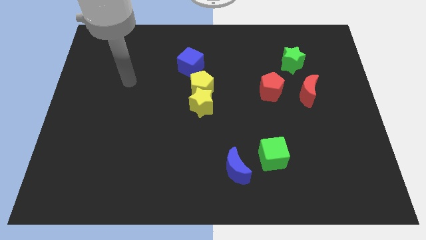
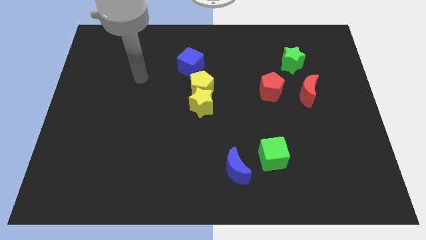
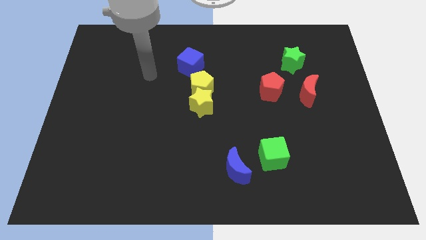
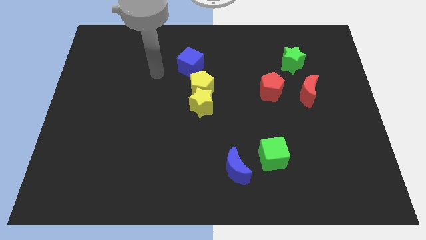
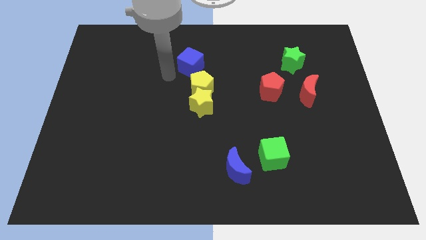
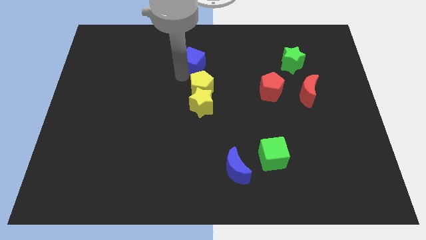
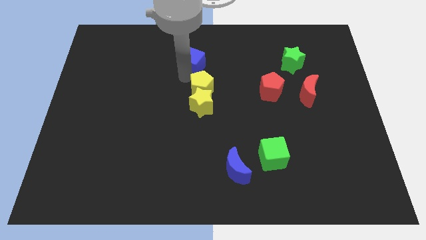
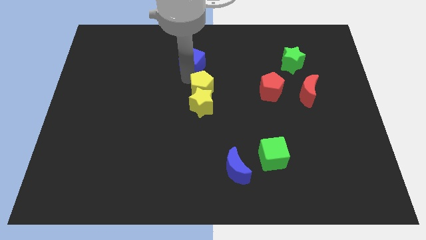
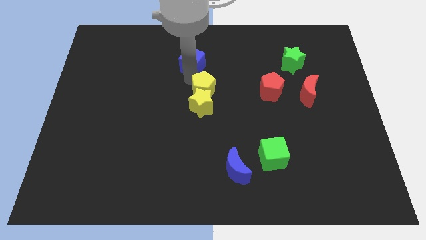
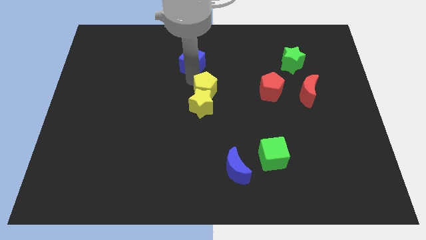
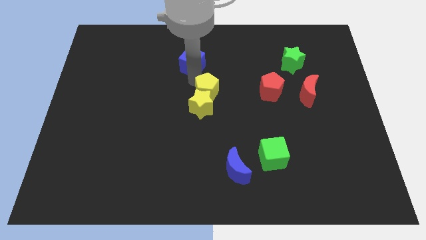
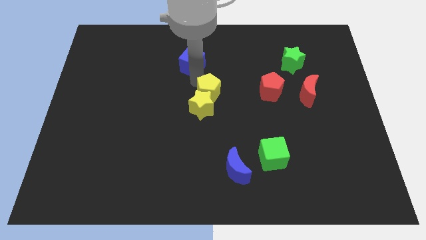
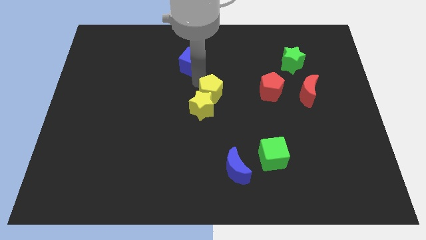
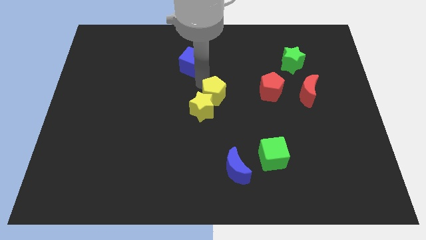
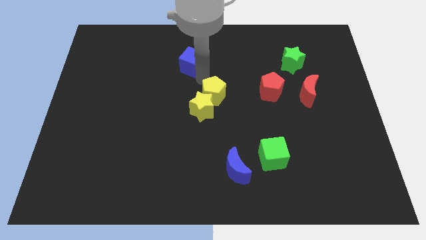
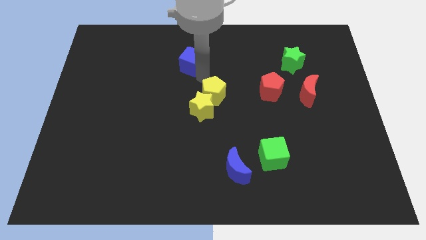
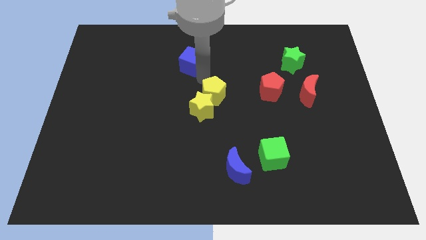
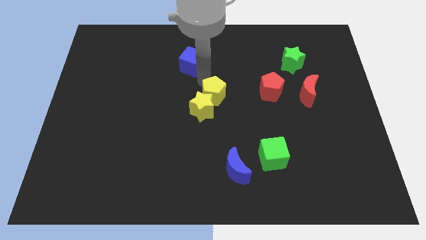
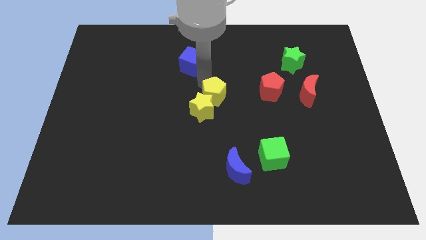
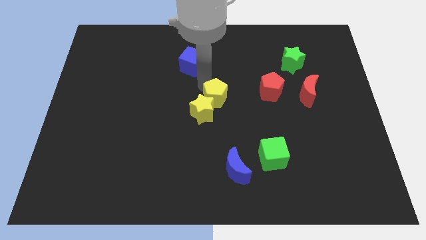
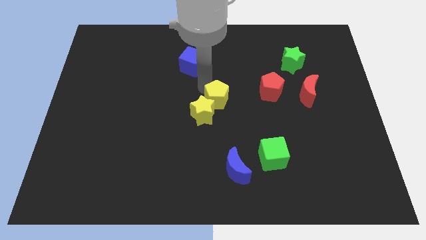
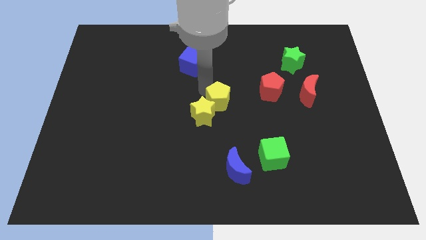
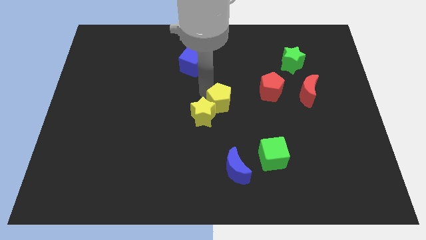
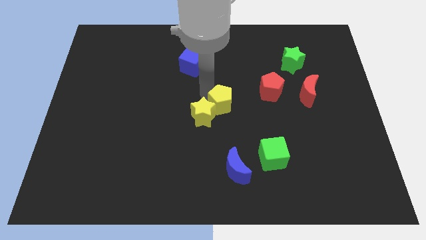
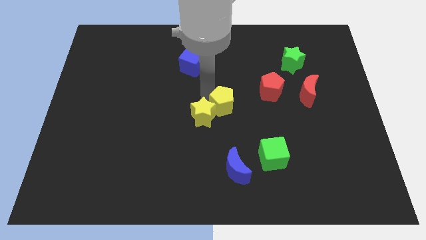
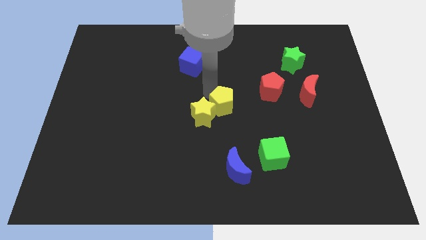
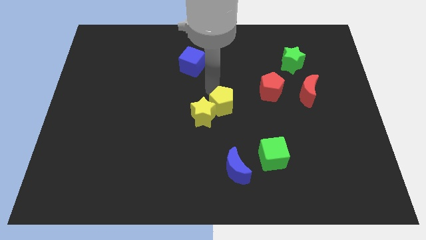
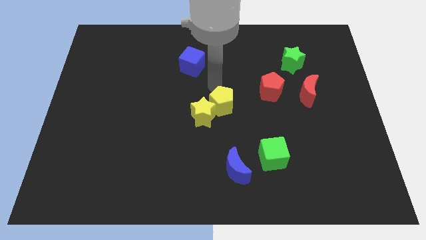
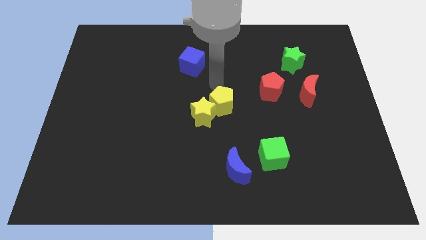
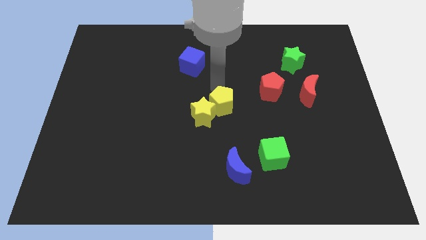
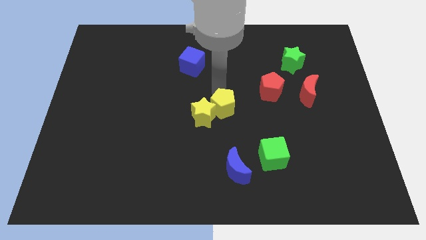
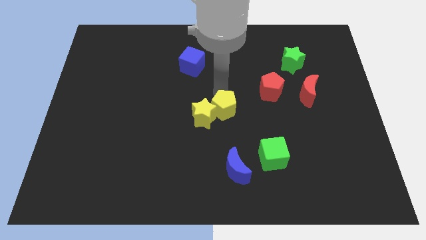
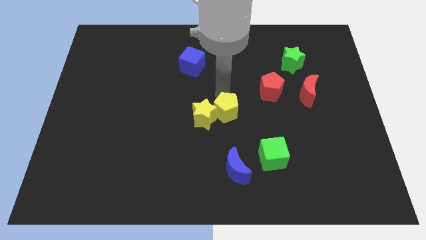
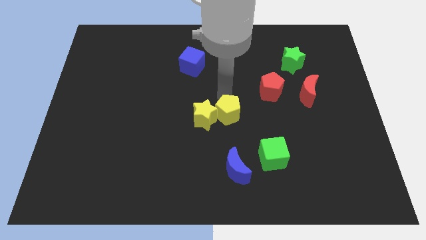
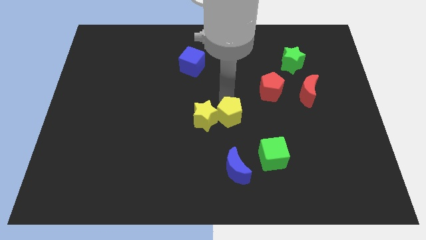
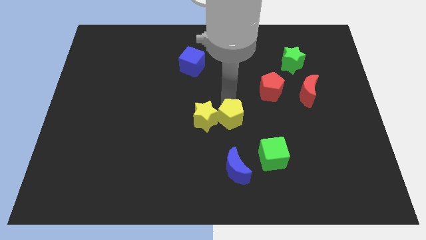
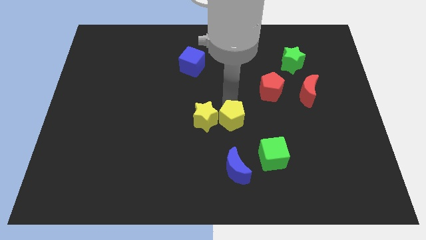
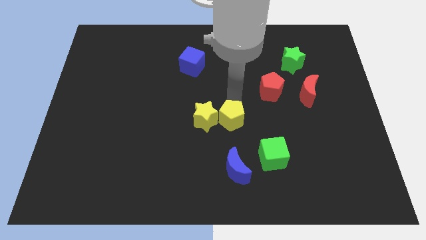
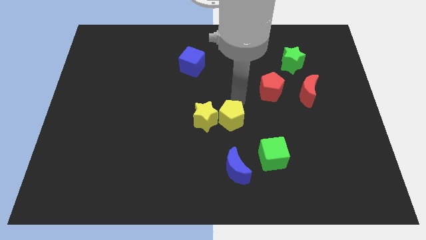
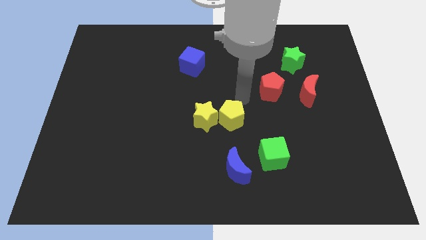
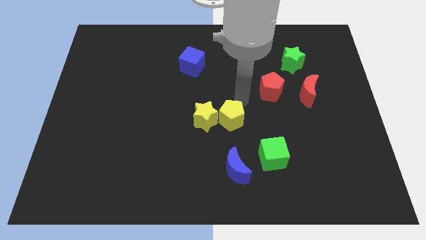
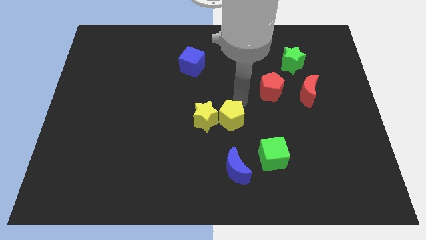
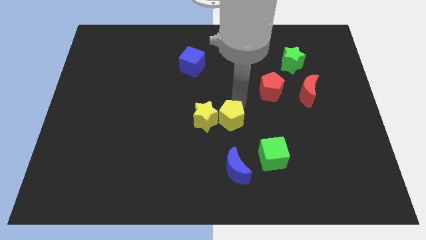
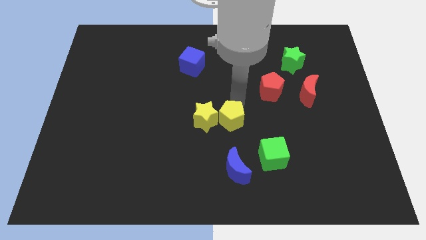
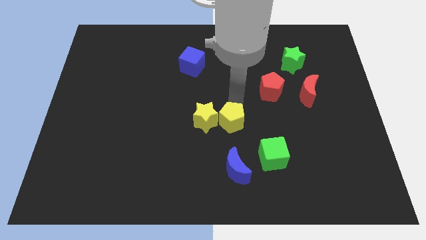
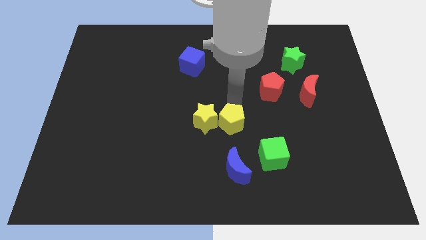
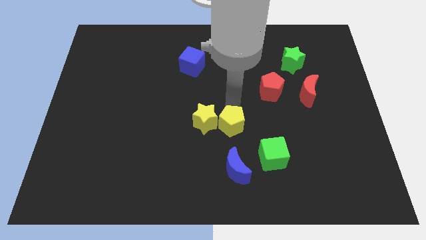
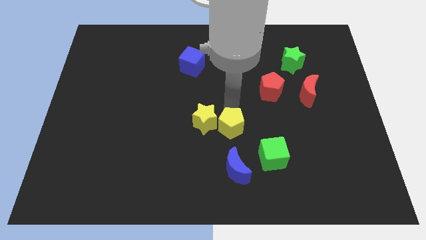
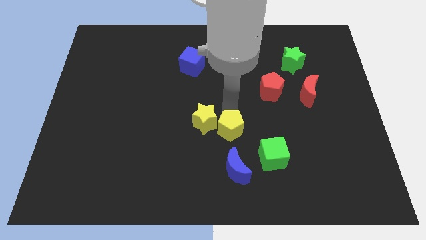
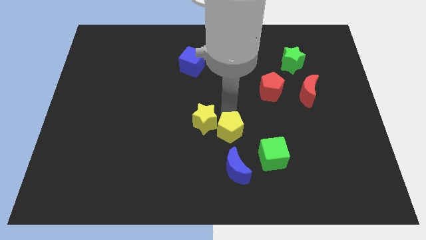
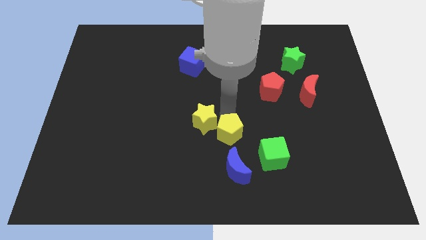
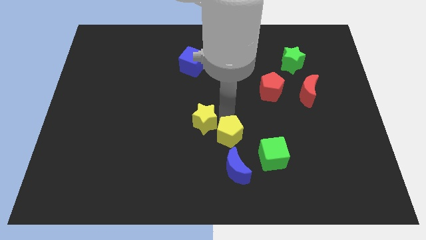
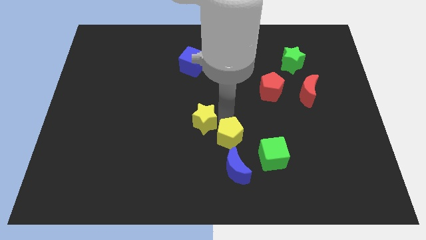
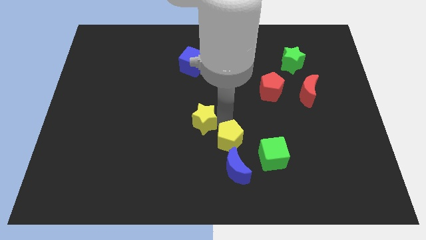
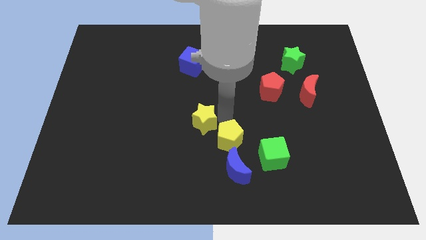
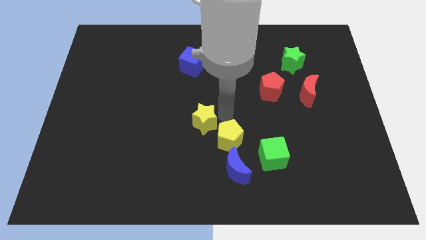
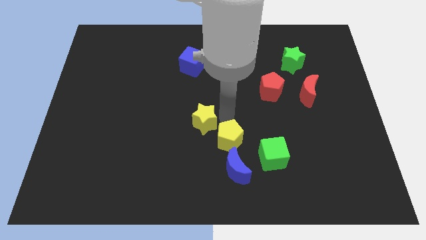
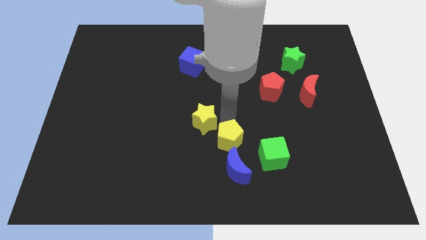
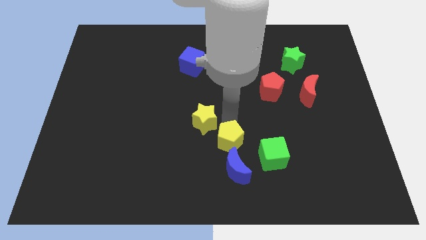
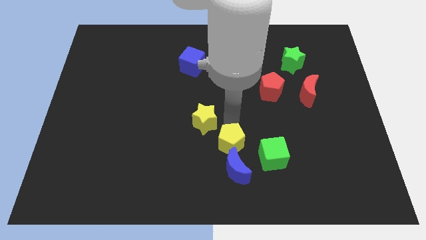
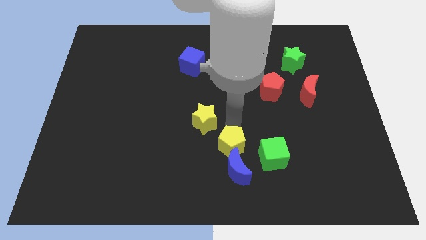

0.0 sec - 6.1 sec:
push the yellow pentagon close to the blue moon

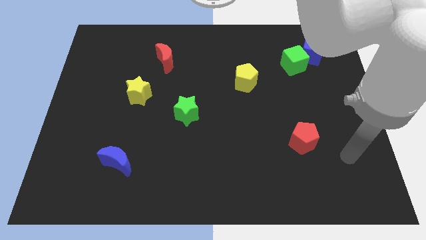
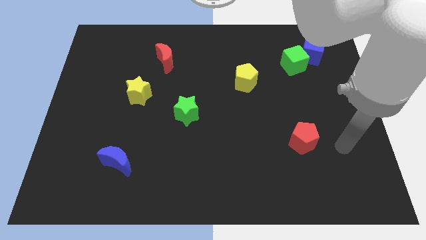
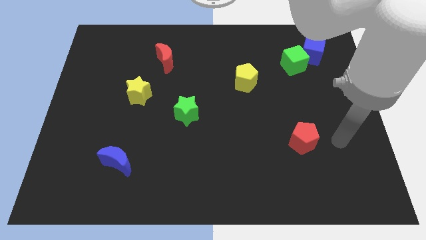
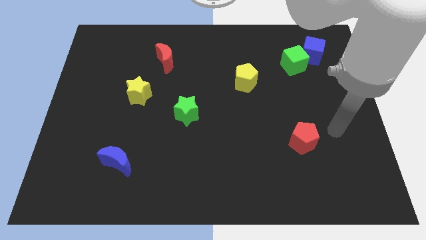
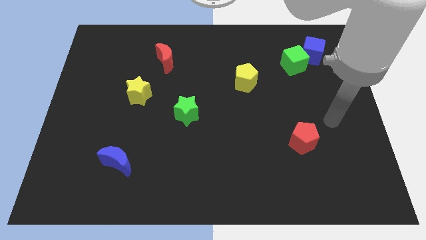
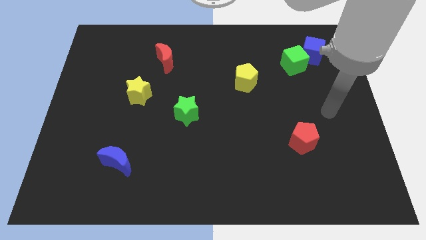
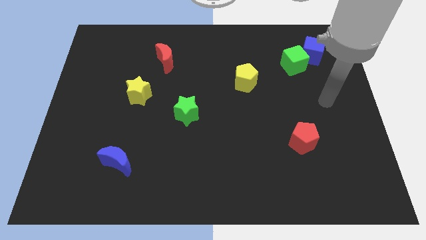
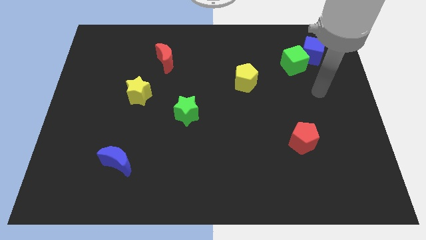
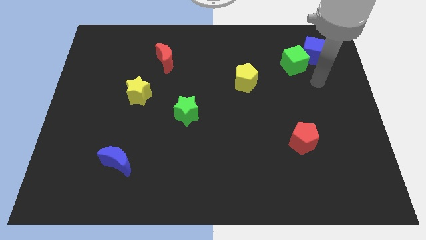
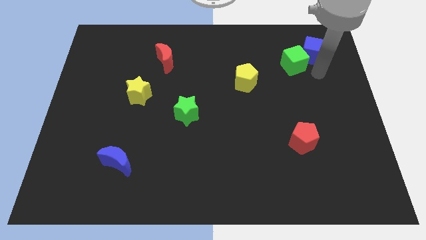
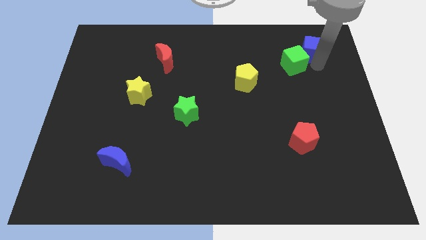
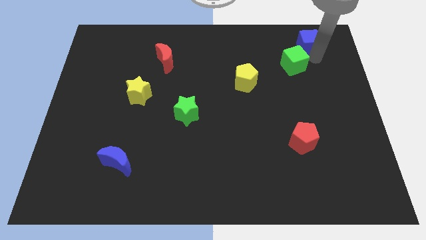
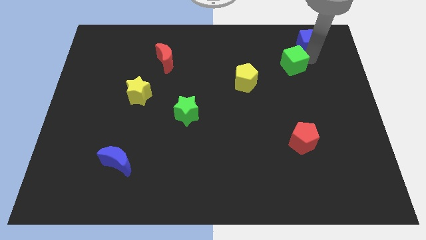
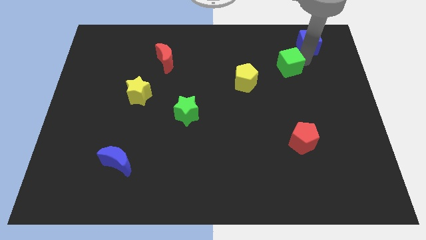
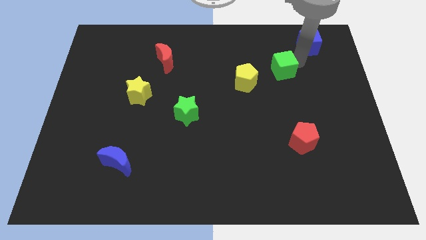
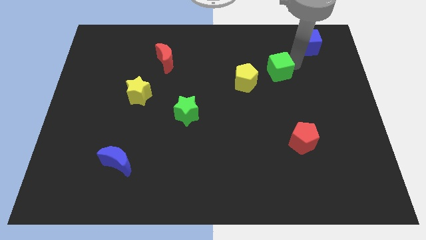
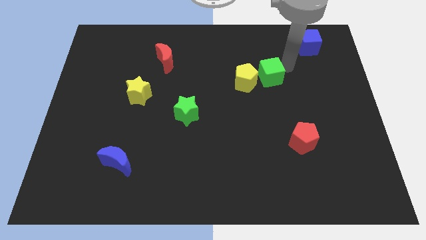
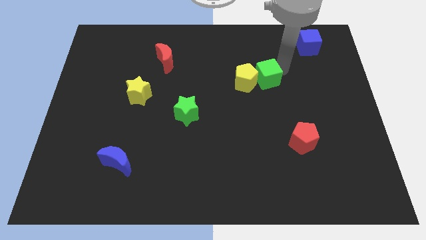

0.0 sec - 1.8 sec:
push the green cube close to the yellow pentagon
